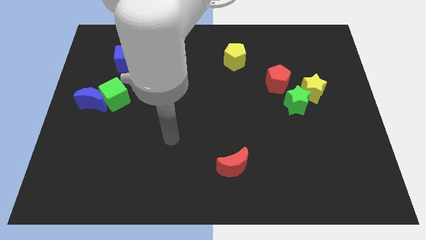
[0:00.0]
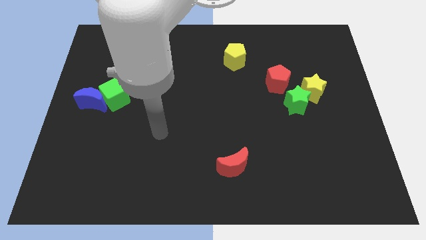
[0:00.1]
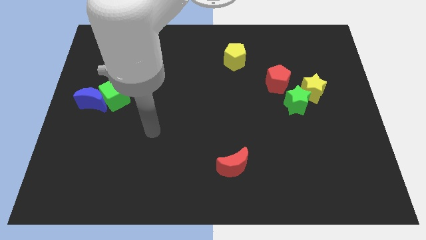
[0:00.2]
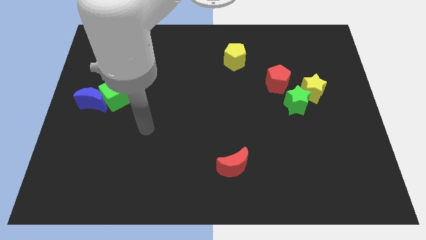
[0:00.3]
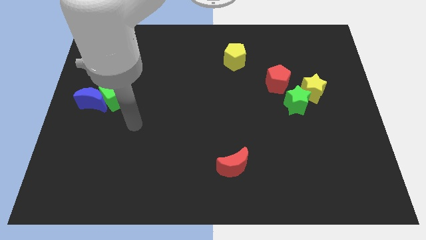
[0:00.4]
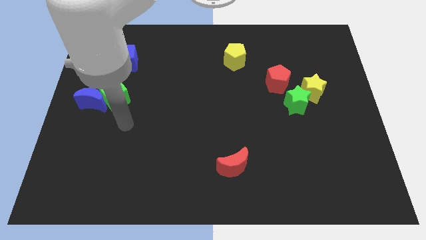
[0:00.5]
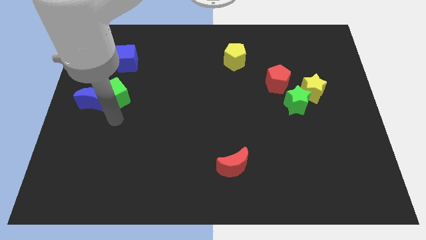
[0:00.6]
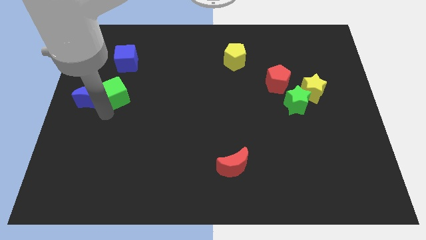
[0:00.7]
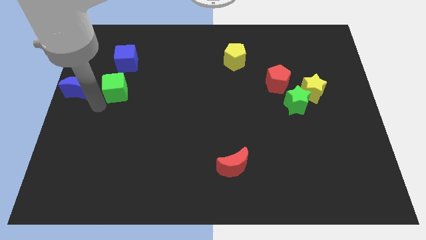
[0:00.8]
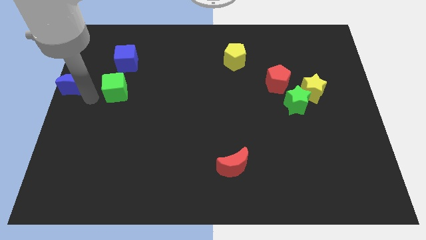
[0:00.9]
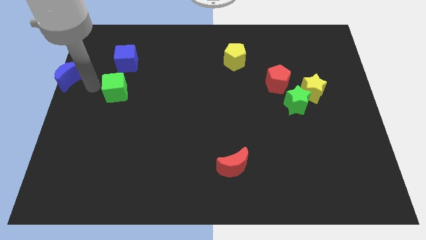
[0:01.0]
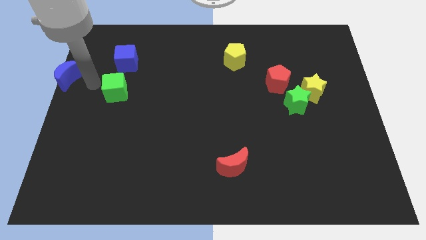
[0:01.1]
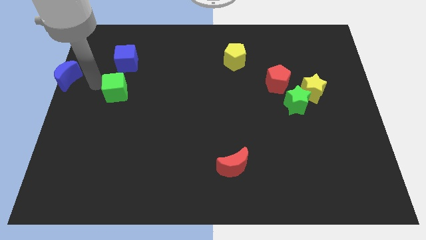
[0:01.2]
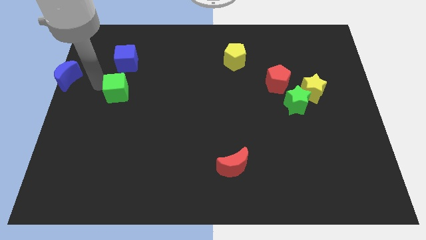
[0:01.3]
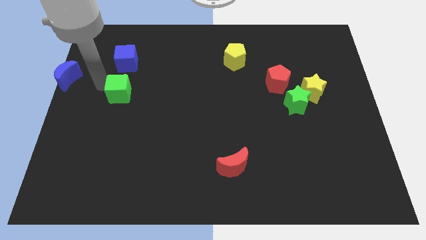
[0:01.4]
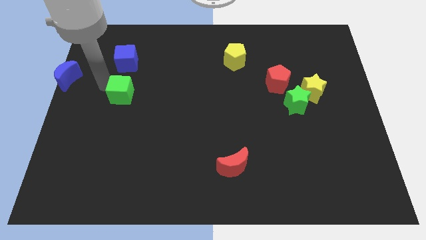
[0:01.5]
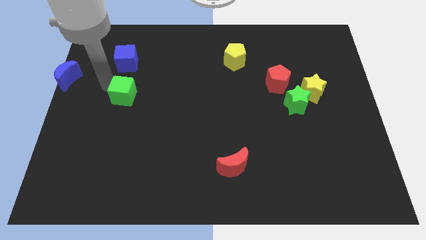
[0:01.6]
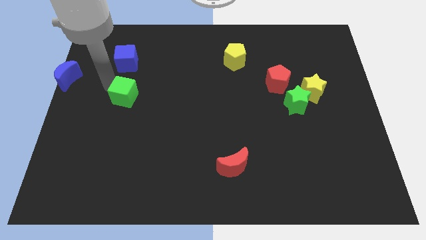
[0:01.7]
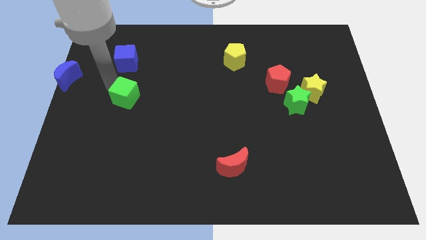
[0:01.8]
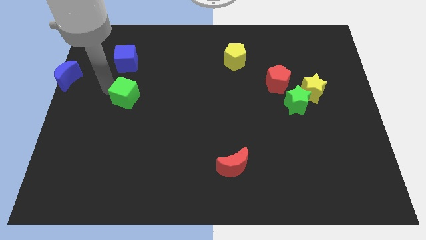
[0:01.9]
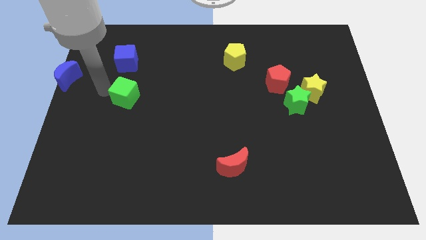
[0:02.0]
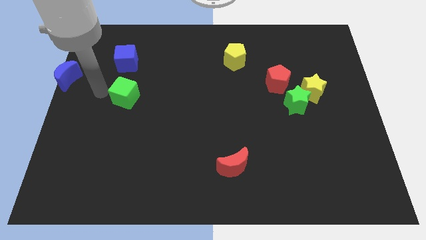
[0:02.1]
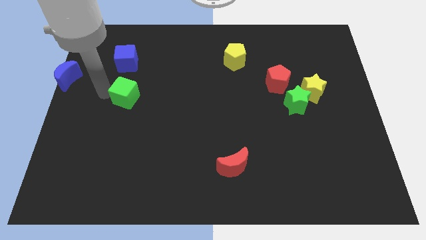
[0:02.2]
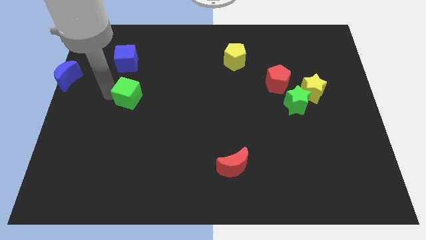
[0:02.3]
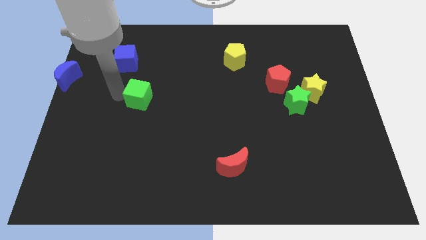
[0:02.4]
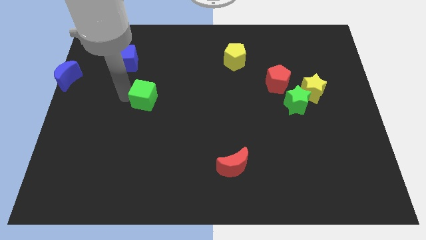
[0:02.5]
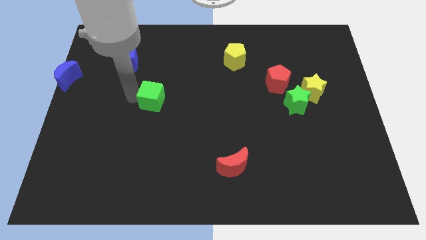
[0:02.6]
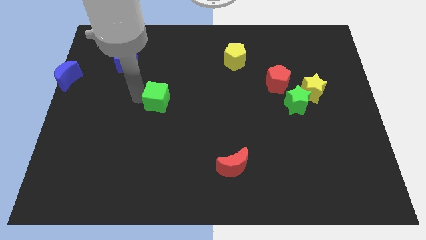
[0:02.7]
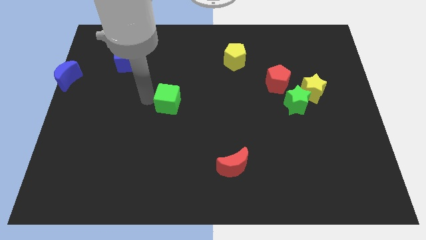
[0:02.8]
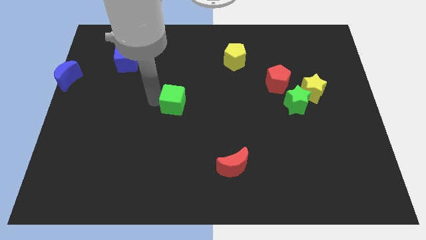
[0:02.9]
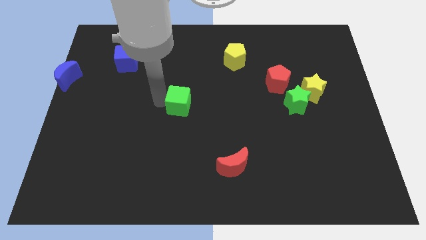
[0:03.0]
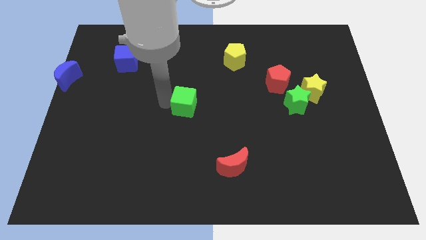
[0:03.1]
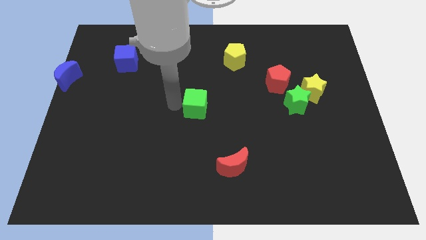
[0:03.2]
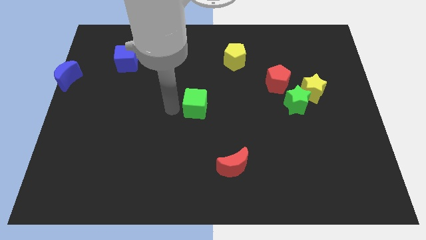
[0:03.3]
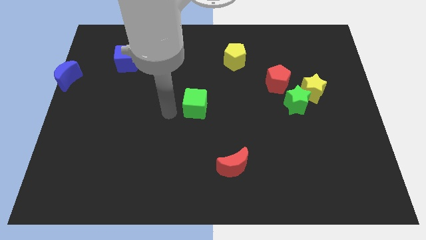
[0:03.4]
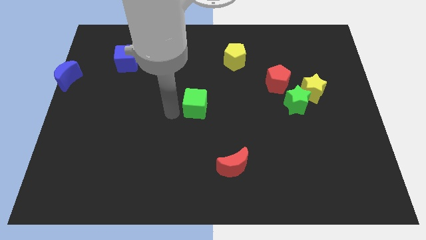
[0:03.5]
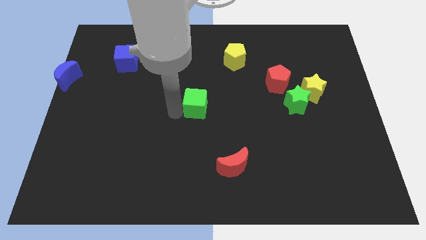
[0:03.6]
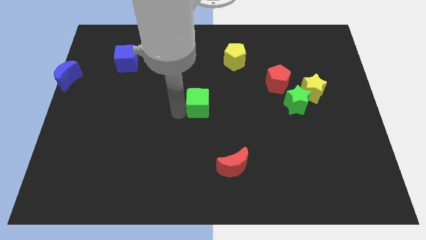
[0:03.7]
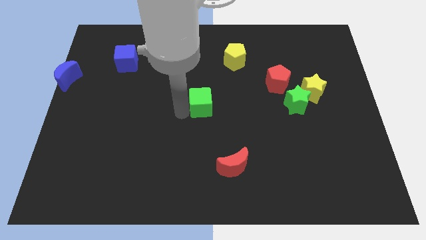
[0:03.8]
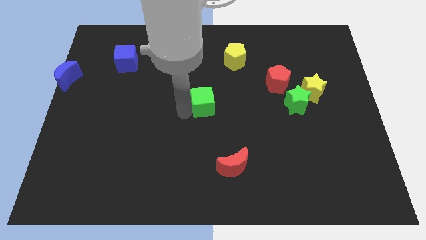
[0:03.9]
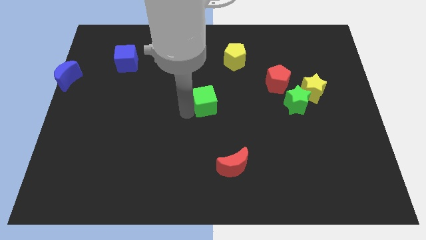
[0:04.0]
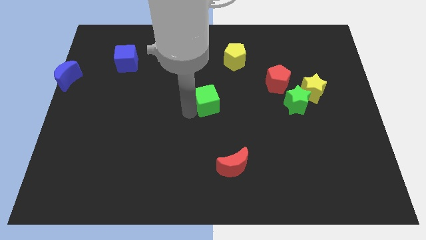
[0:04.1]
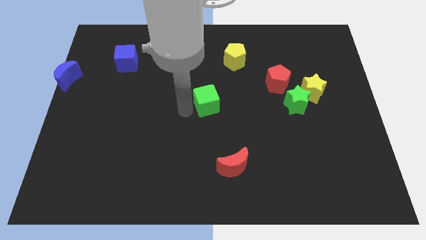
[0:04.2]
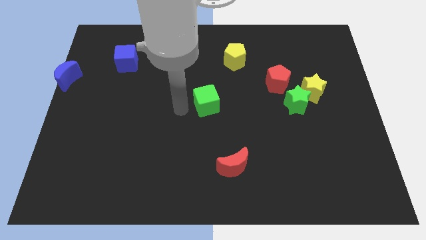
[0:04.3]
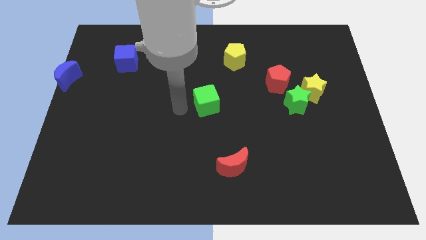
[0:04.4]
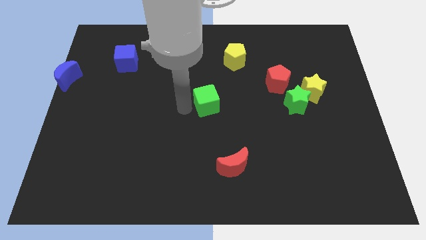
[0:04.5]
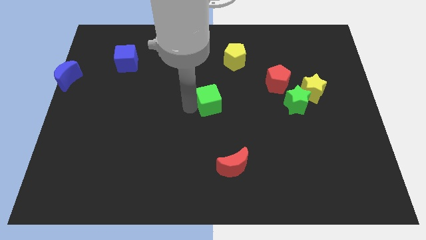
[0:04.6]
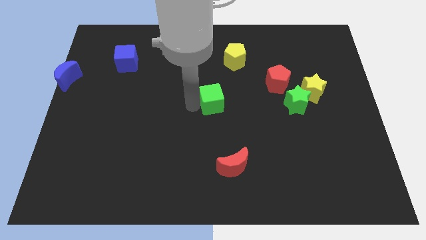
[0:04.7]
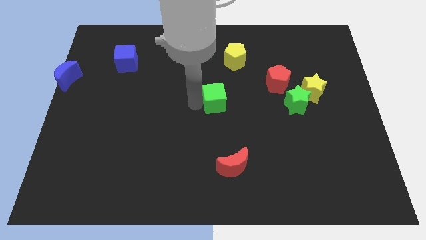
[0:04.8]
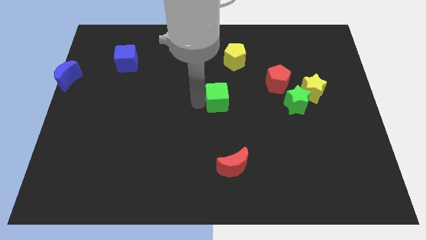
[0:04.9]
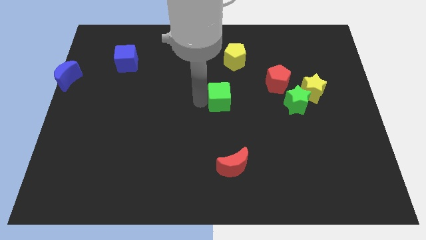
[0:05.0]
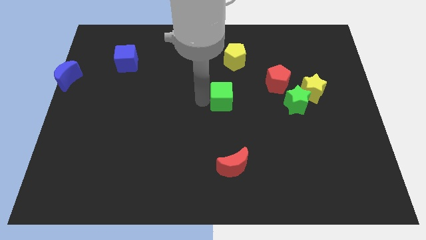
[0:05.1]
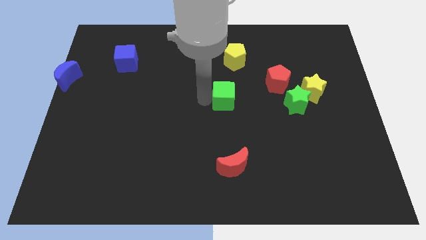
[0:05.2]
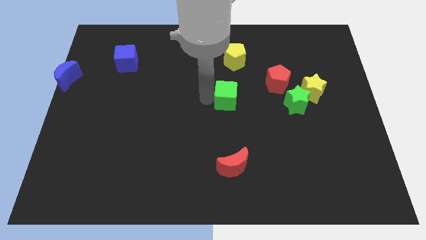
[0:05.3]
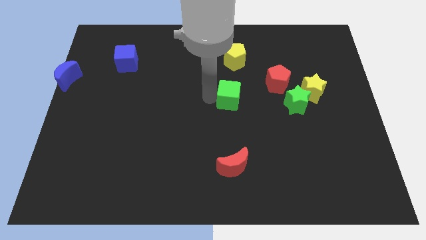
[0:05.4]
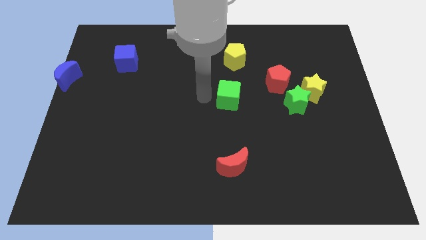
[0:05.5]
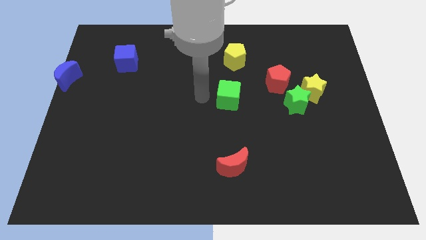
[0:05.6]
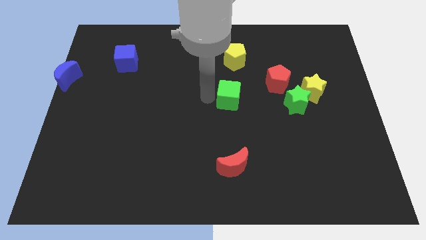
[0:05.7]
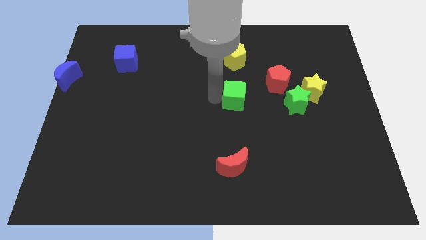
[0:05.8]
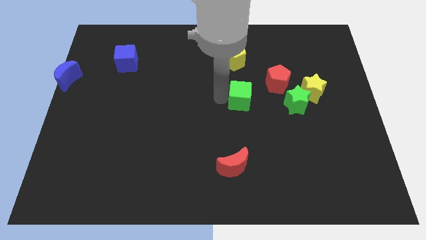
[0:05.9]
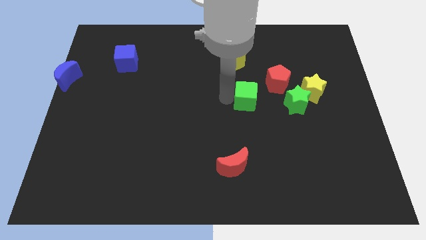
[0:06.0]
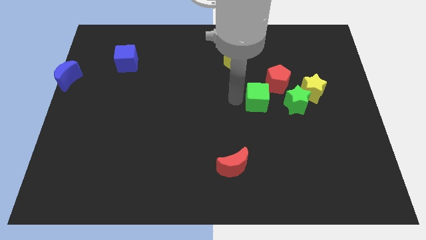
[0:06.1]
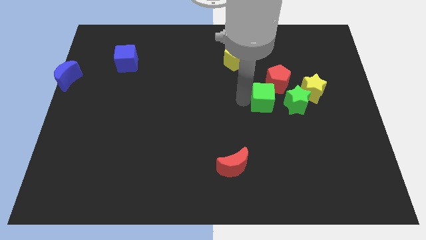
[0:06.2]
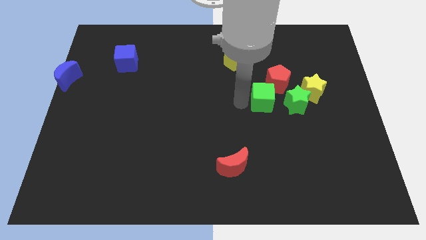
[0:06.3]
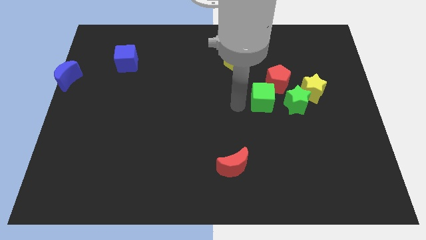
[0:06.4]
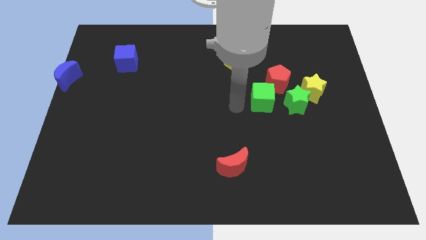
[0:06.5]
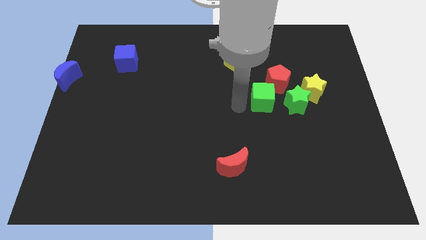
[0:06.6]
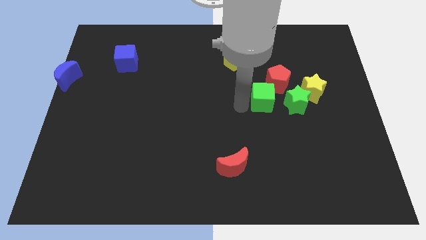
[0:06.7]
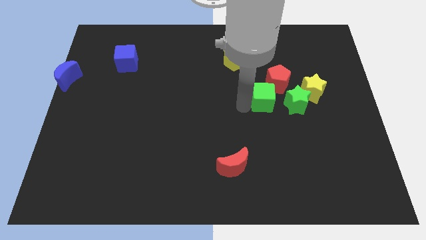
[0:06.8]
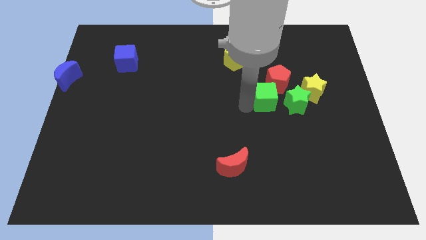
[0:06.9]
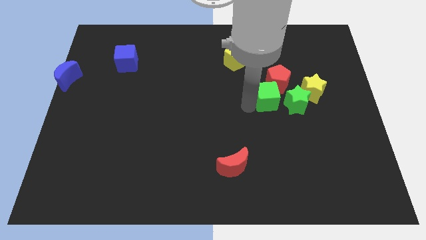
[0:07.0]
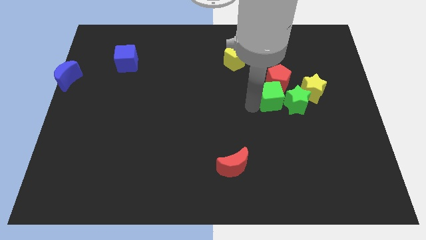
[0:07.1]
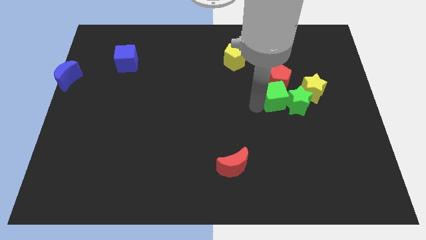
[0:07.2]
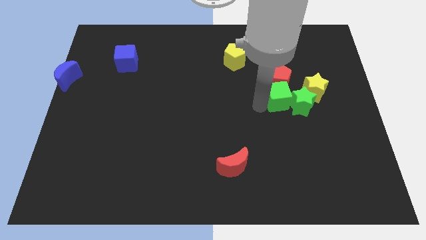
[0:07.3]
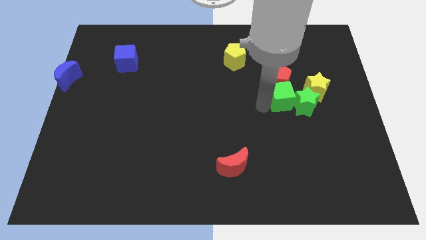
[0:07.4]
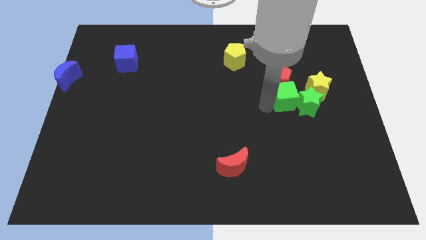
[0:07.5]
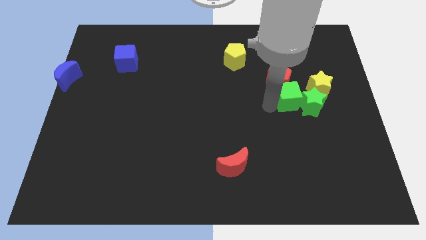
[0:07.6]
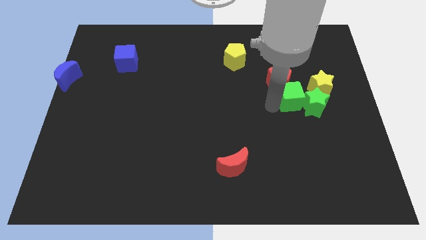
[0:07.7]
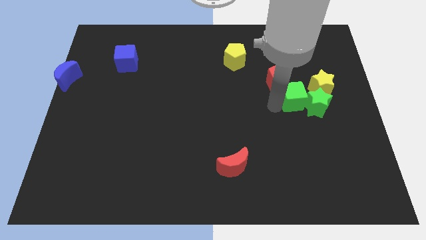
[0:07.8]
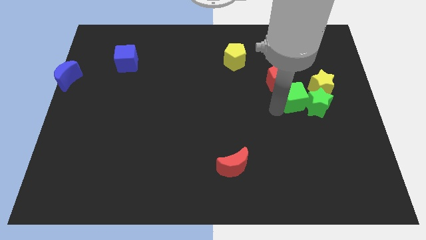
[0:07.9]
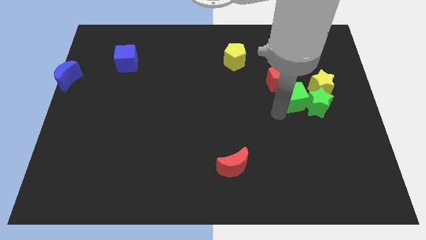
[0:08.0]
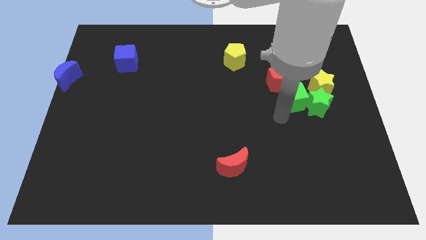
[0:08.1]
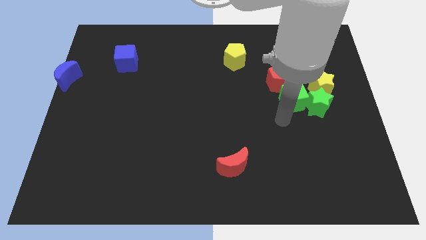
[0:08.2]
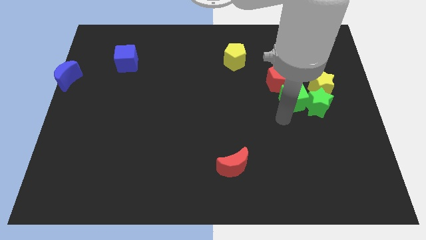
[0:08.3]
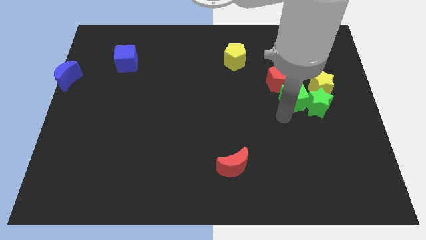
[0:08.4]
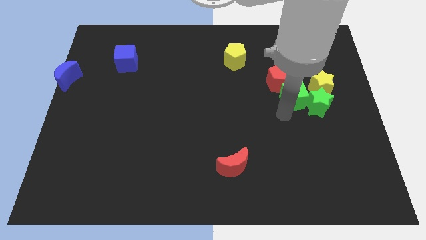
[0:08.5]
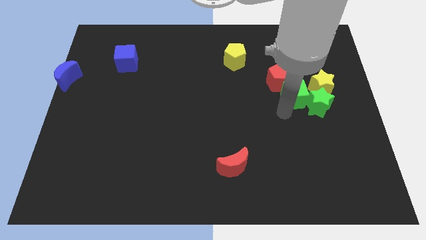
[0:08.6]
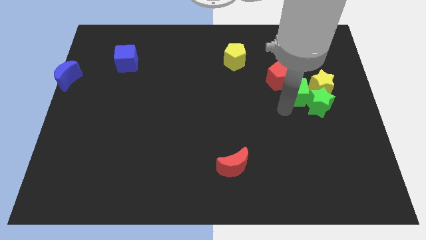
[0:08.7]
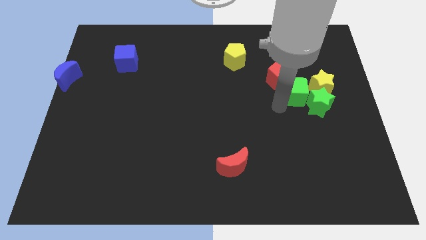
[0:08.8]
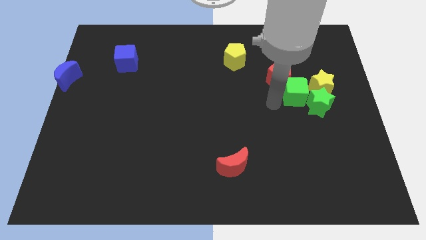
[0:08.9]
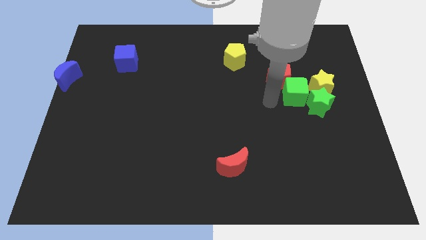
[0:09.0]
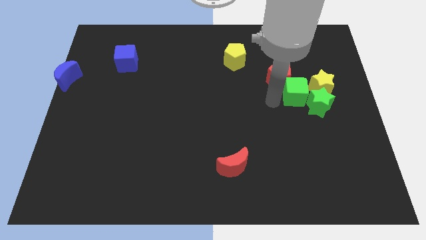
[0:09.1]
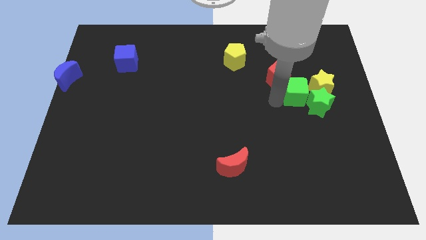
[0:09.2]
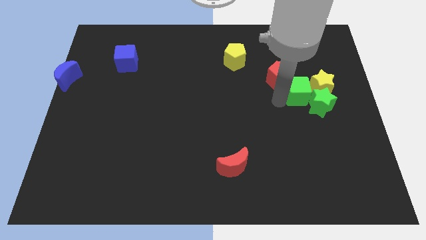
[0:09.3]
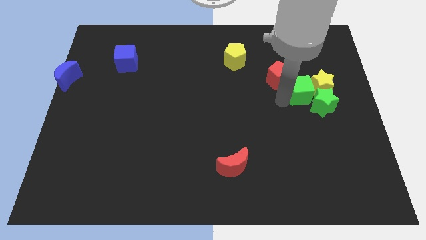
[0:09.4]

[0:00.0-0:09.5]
put the green cube to the yellow star
